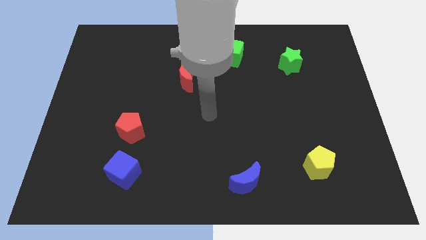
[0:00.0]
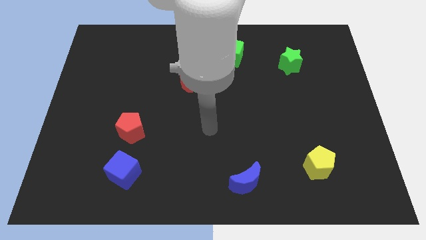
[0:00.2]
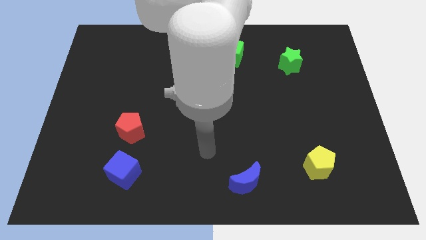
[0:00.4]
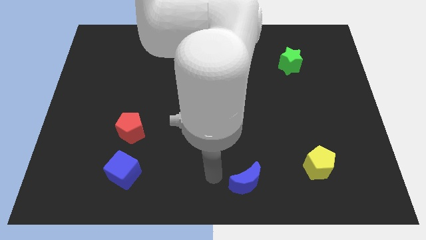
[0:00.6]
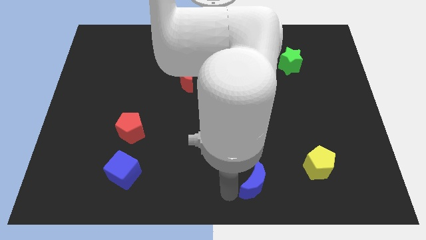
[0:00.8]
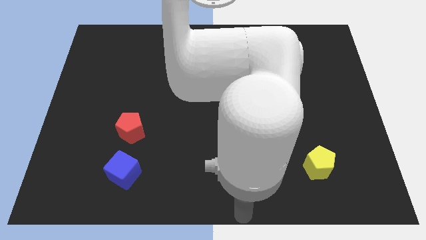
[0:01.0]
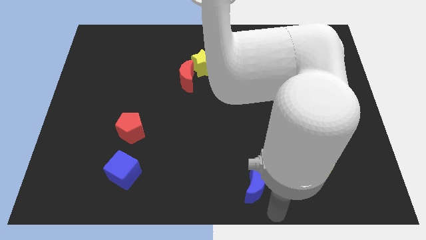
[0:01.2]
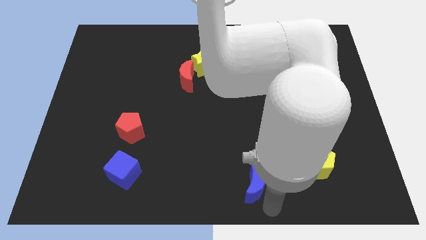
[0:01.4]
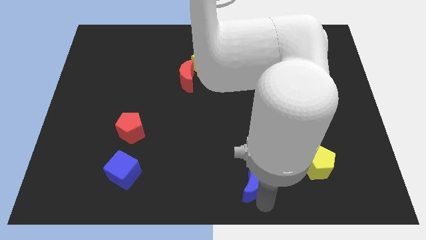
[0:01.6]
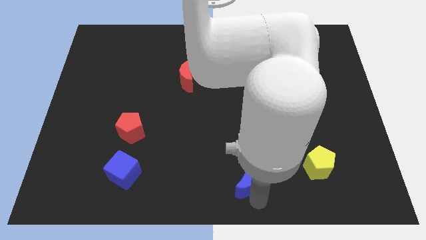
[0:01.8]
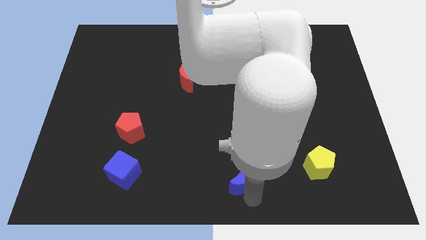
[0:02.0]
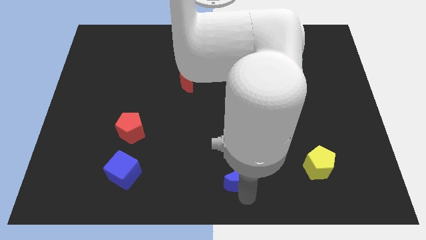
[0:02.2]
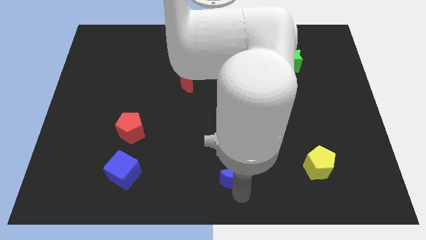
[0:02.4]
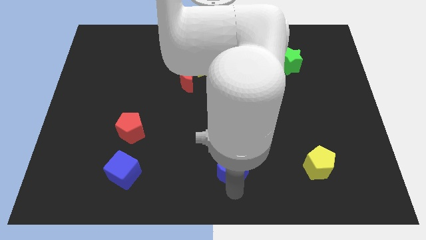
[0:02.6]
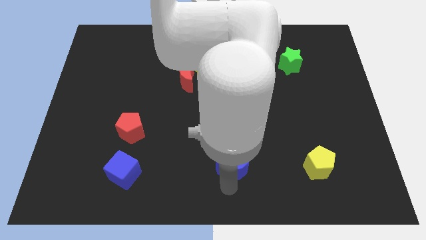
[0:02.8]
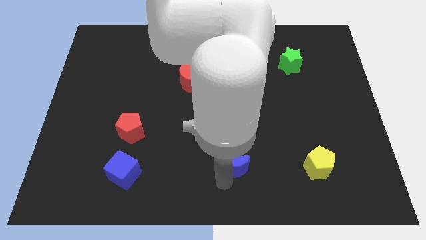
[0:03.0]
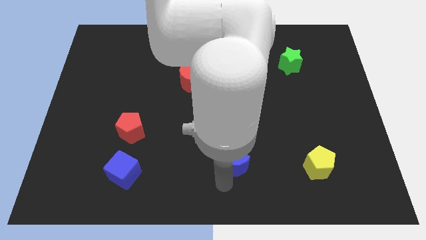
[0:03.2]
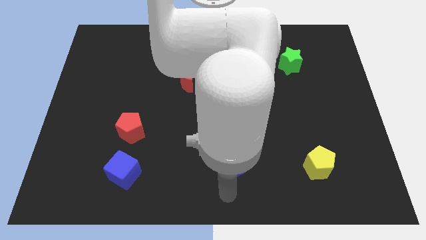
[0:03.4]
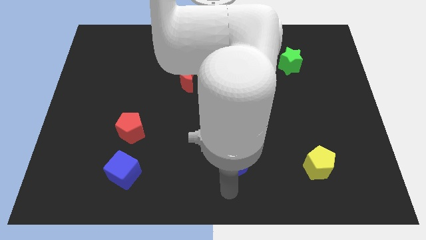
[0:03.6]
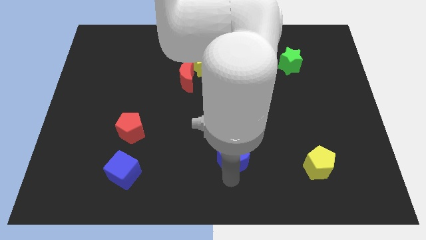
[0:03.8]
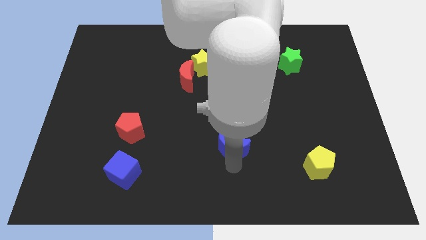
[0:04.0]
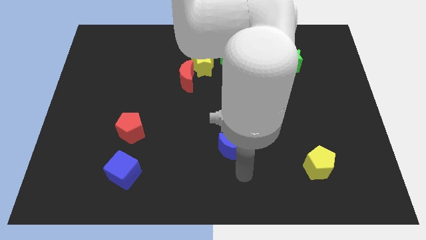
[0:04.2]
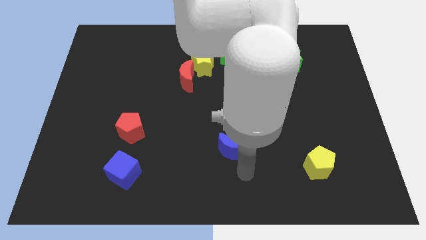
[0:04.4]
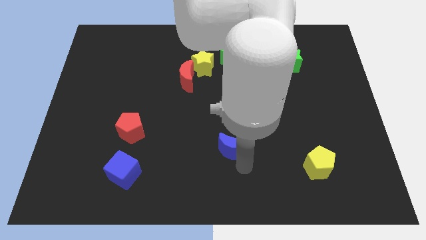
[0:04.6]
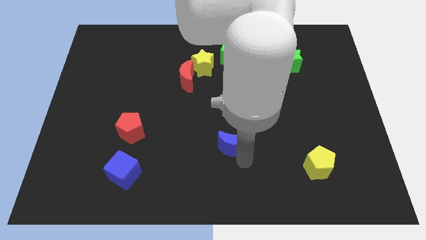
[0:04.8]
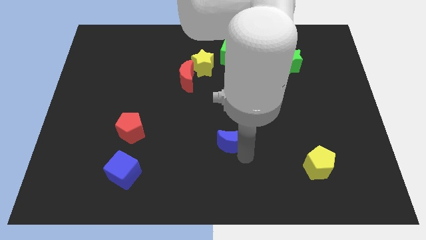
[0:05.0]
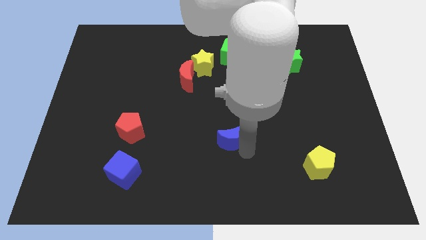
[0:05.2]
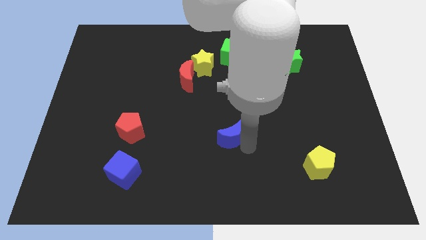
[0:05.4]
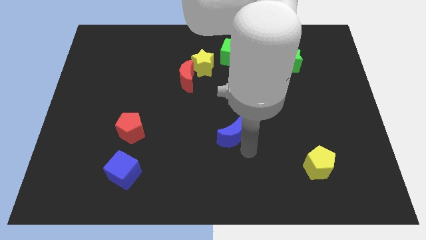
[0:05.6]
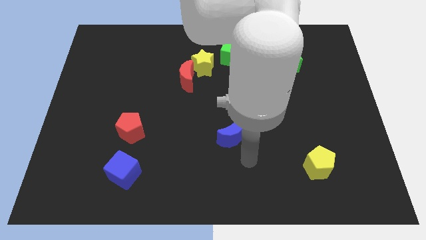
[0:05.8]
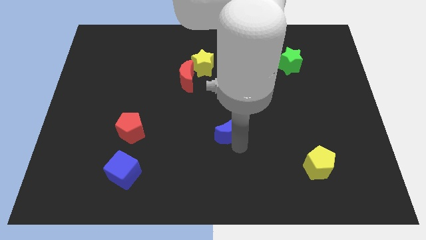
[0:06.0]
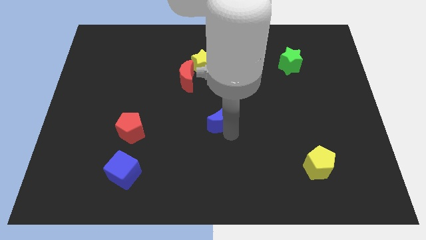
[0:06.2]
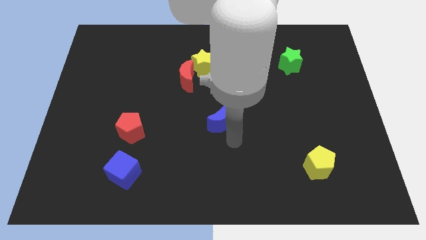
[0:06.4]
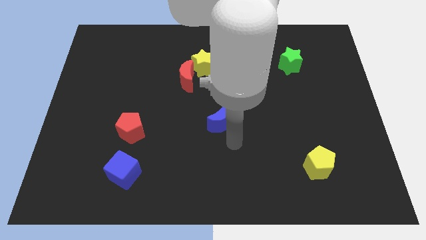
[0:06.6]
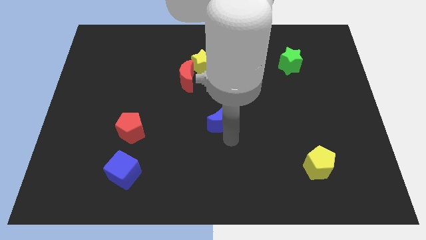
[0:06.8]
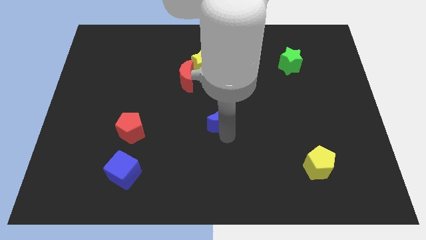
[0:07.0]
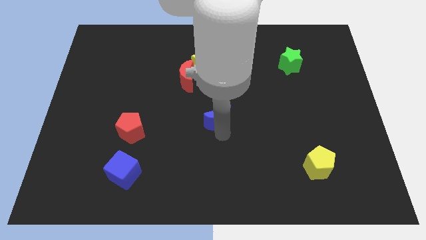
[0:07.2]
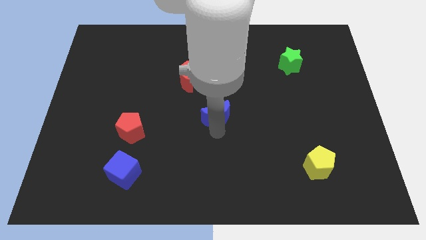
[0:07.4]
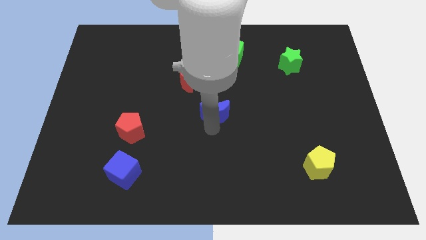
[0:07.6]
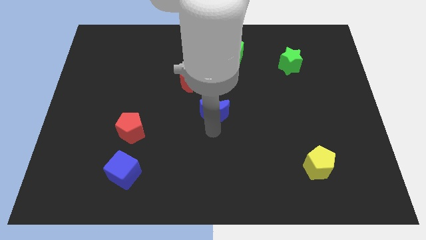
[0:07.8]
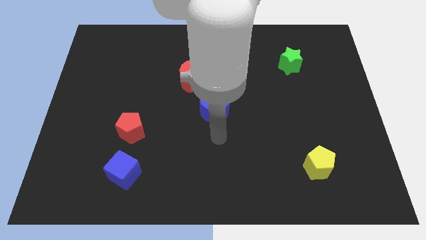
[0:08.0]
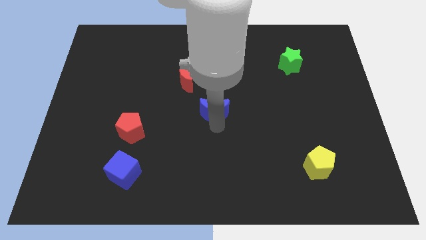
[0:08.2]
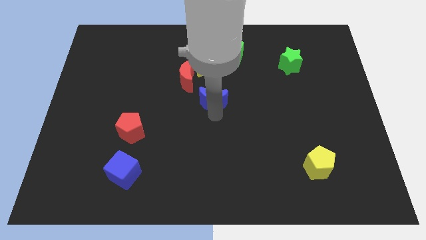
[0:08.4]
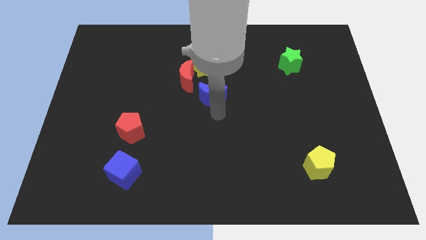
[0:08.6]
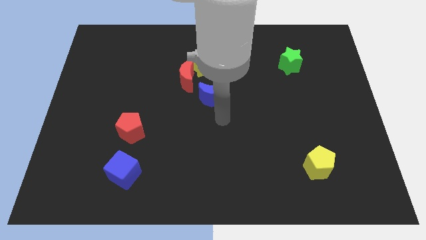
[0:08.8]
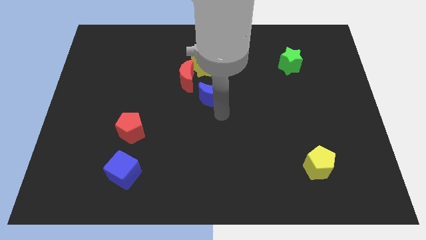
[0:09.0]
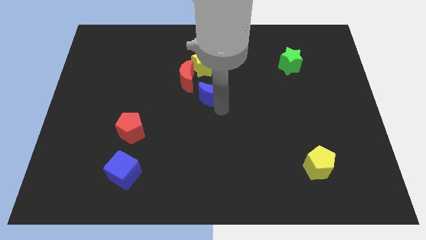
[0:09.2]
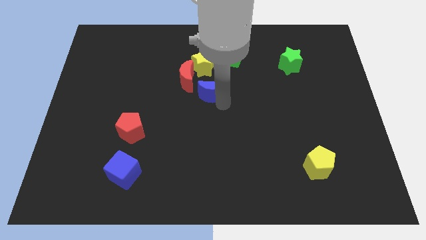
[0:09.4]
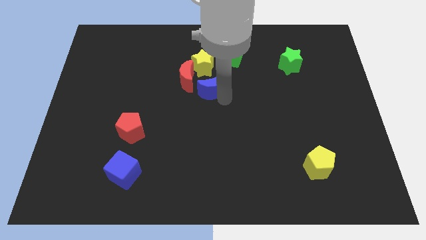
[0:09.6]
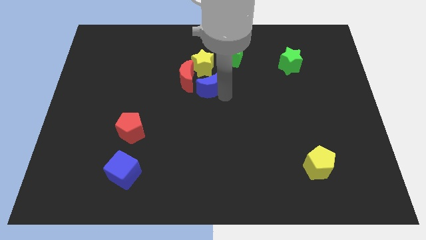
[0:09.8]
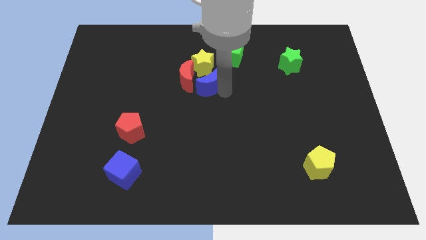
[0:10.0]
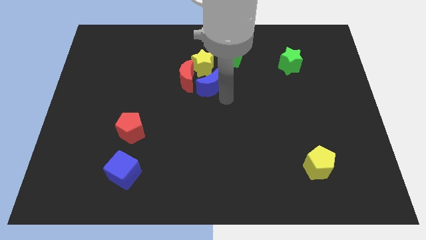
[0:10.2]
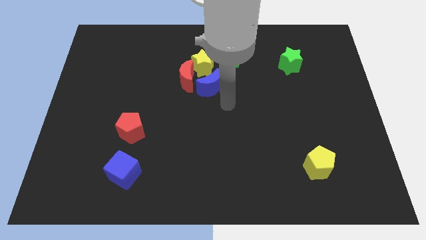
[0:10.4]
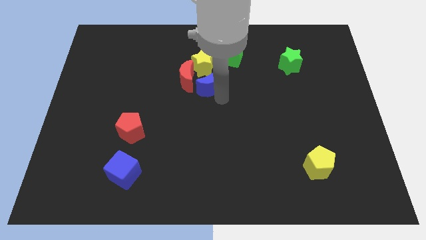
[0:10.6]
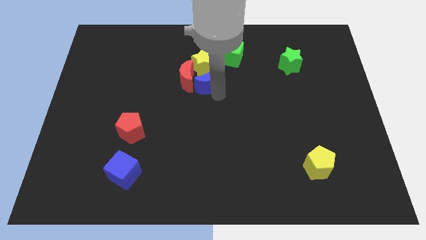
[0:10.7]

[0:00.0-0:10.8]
move the blue moon towards the yellow star
